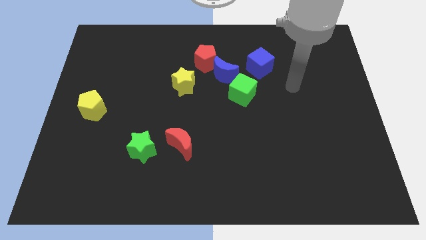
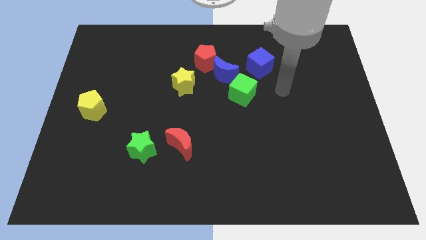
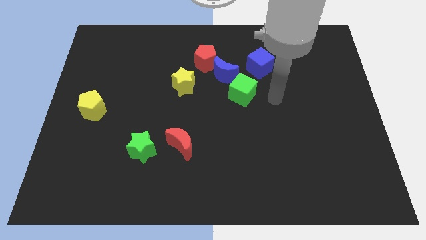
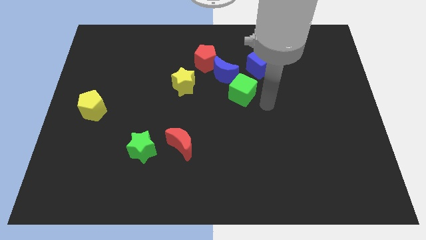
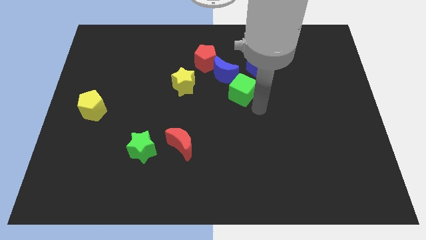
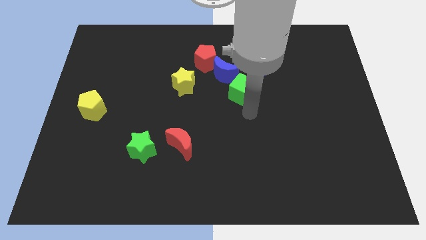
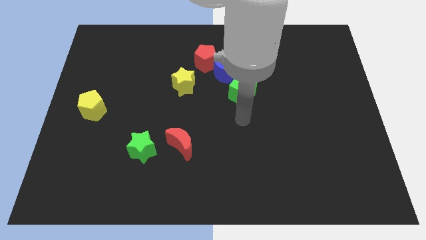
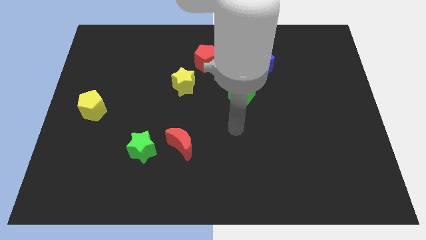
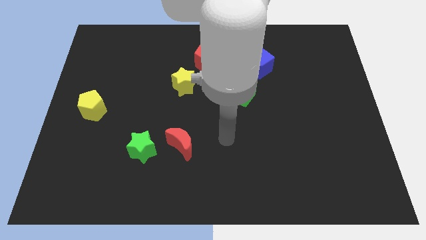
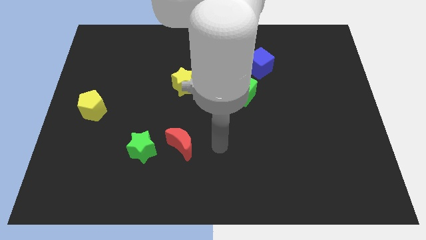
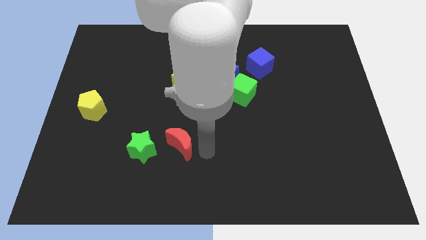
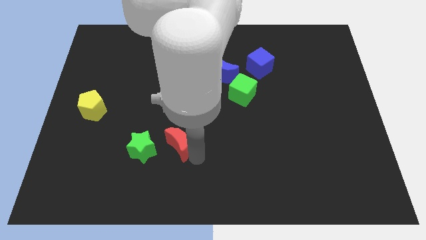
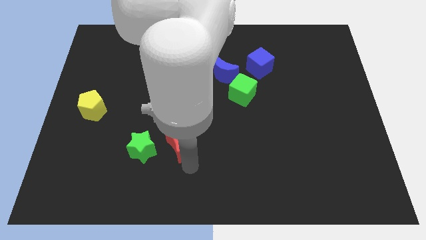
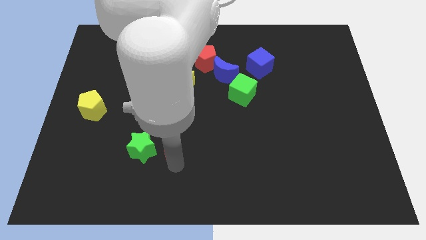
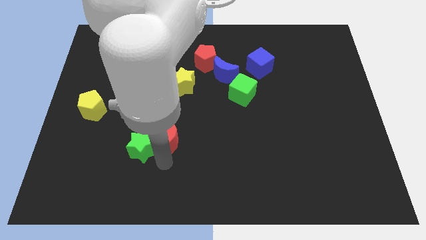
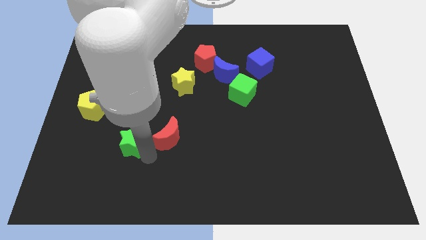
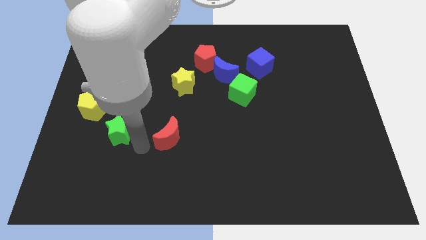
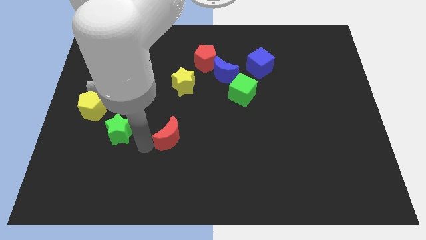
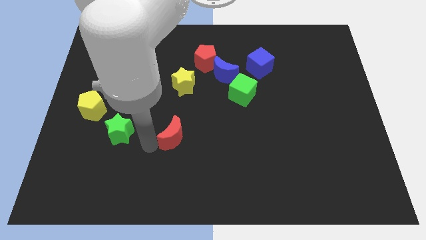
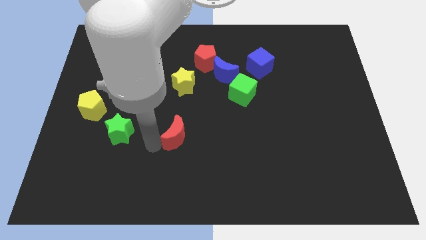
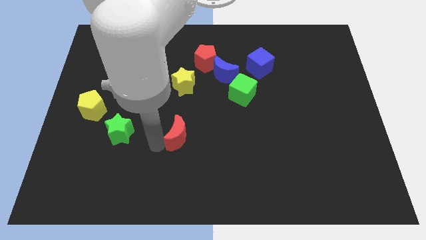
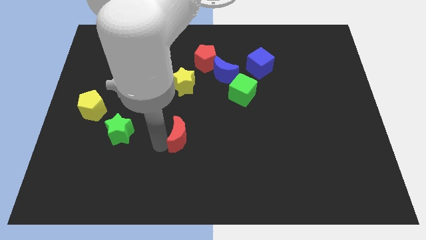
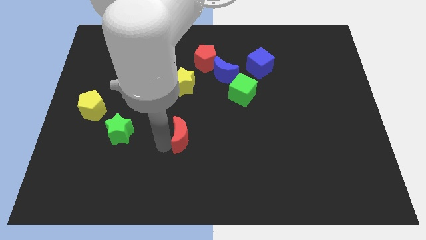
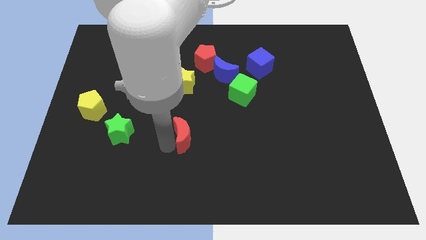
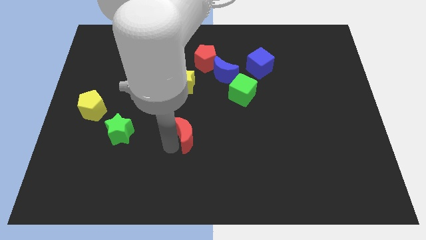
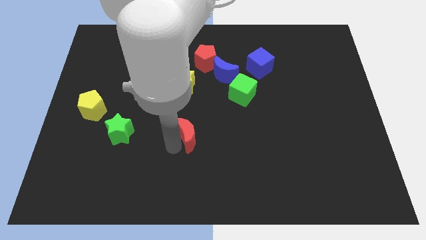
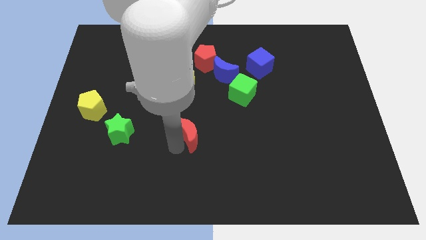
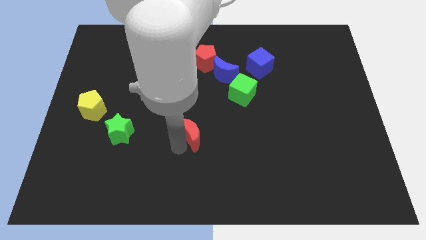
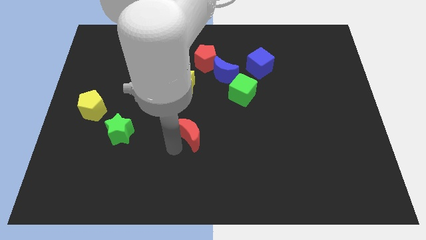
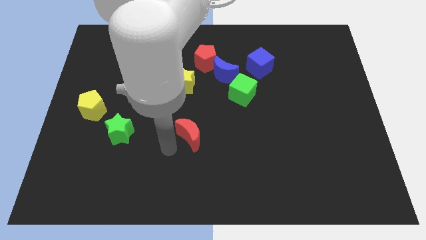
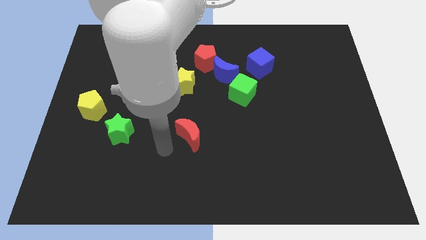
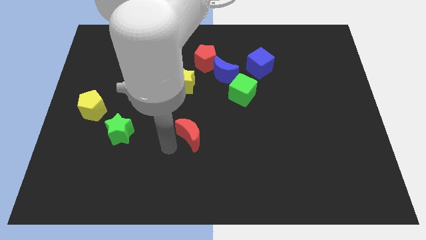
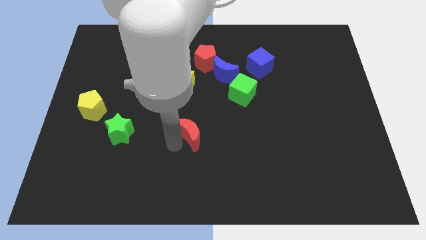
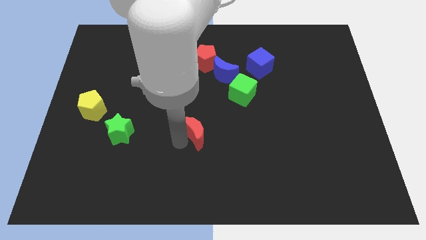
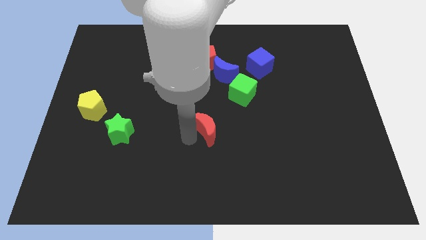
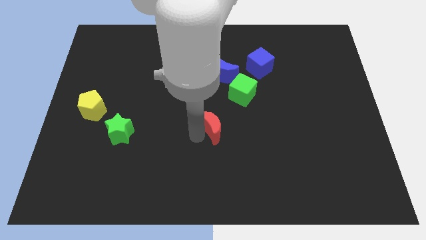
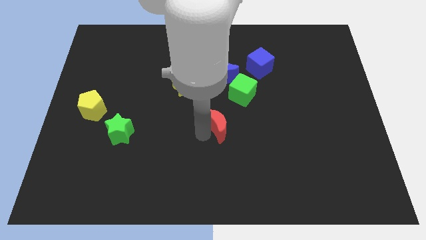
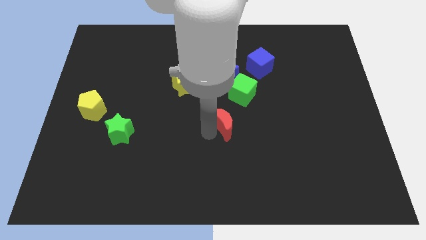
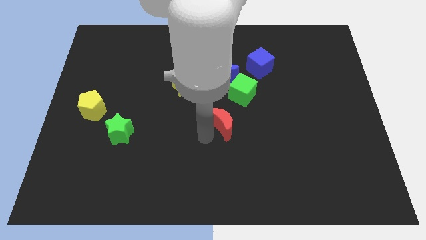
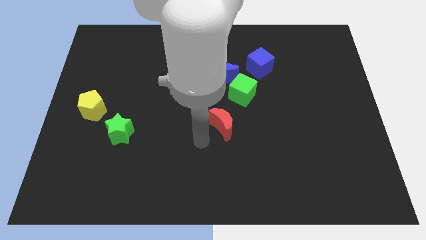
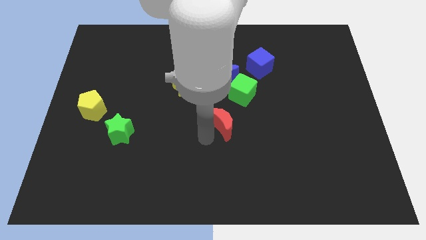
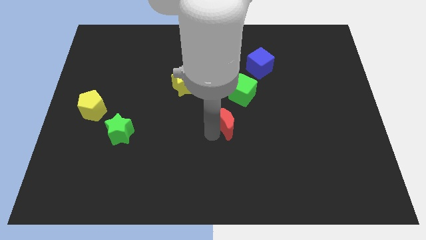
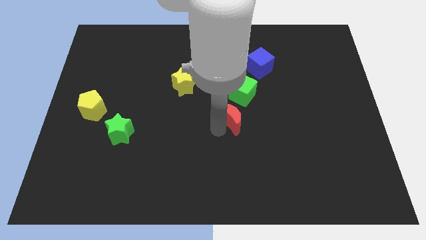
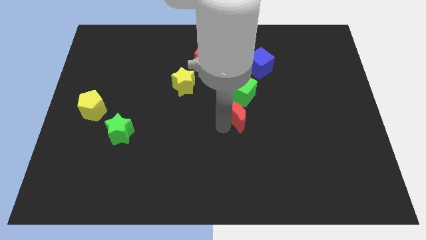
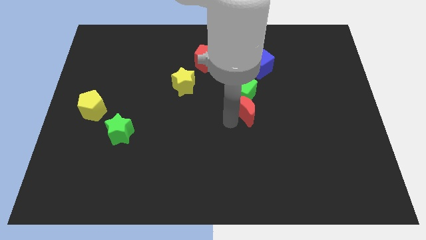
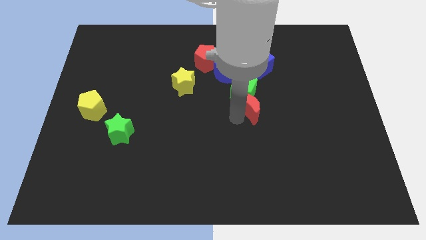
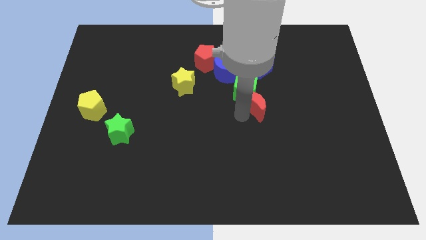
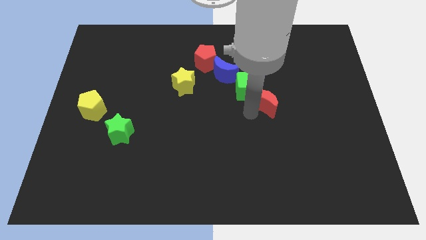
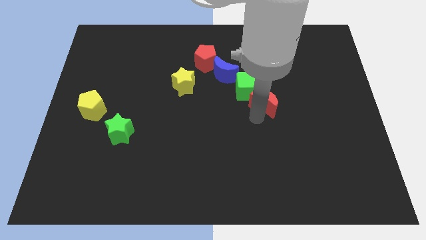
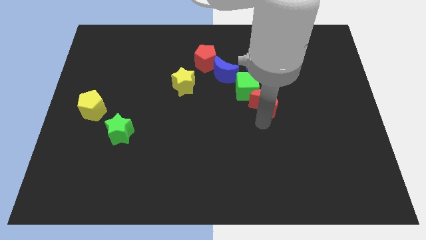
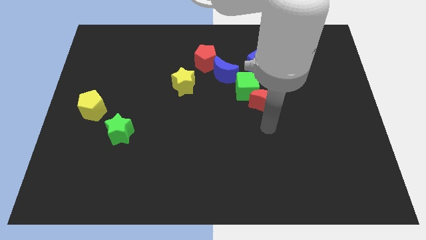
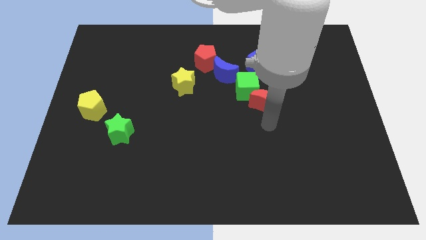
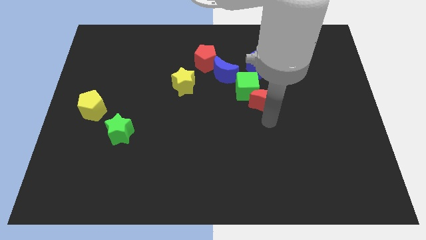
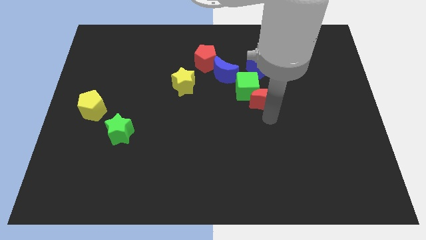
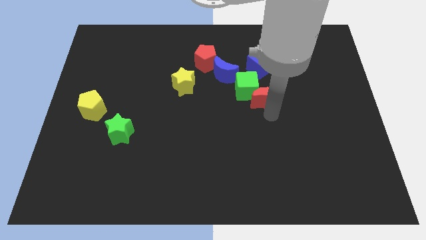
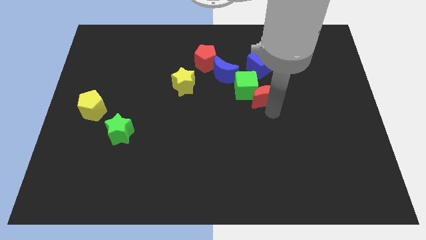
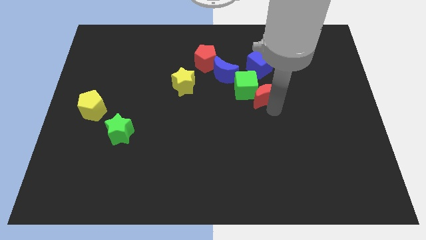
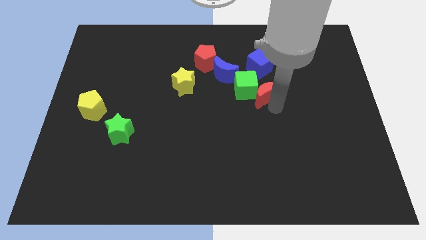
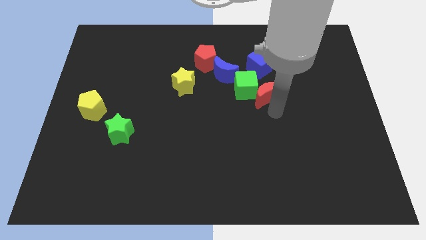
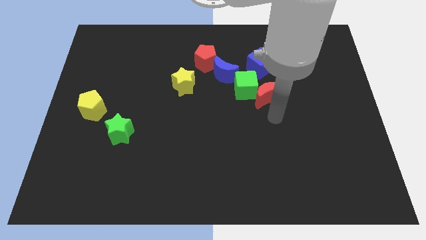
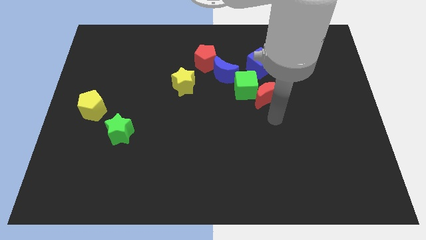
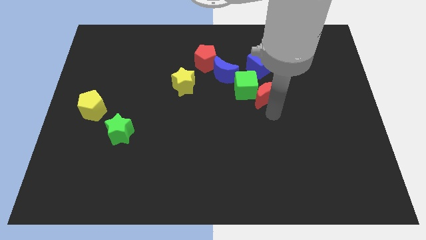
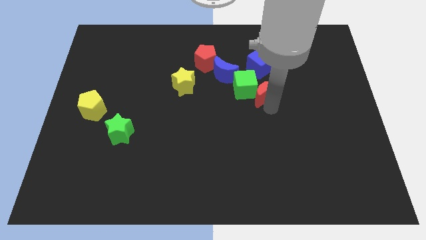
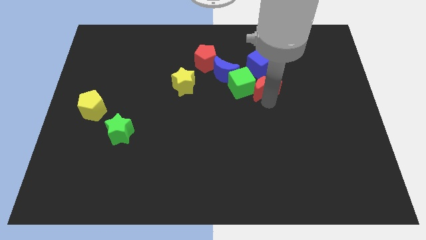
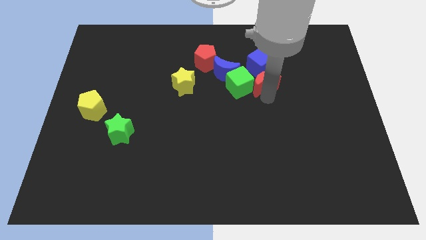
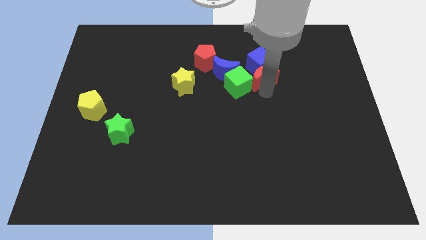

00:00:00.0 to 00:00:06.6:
move the red moon towards the blue cube
